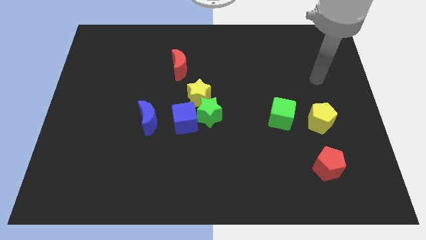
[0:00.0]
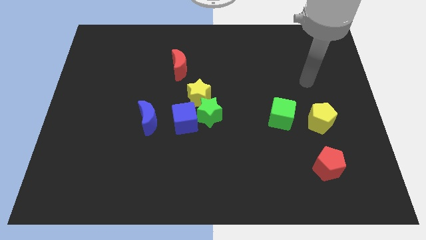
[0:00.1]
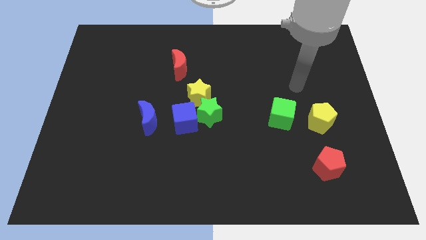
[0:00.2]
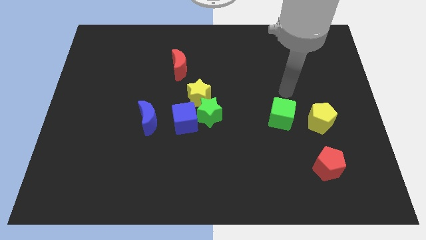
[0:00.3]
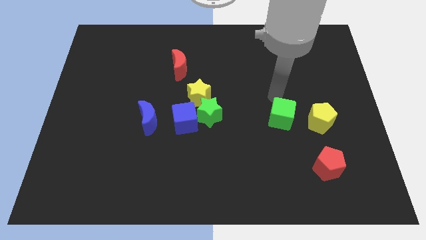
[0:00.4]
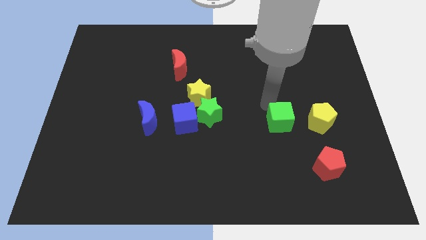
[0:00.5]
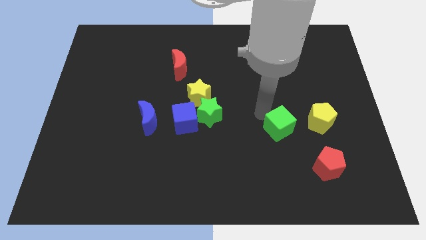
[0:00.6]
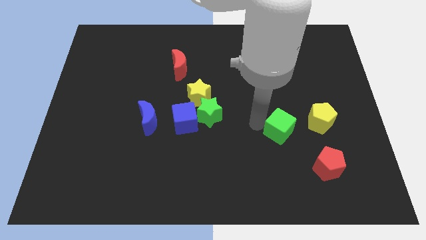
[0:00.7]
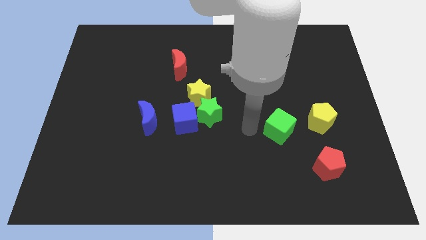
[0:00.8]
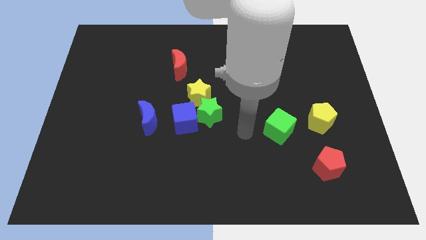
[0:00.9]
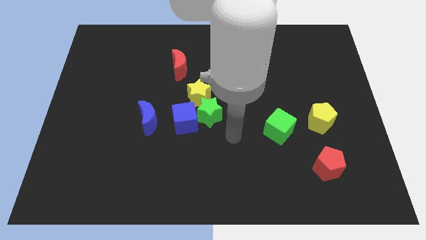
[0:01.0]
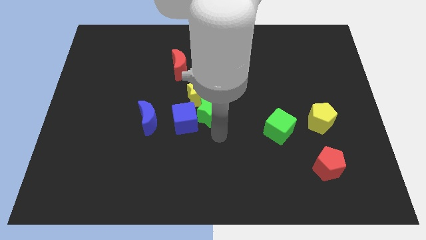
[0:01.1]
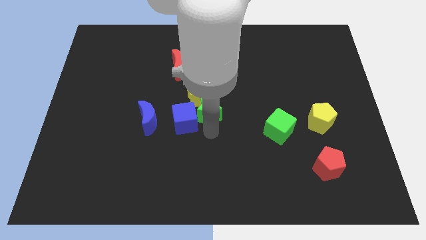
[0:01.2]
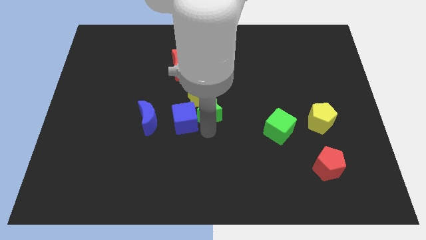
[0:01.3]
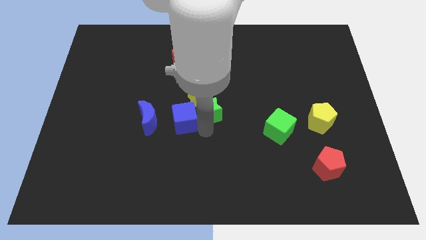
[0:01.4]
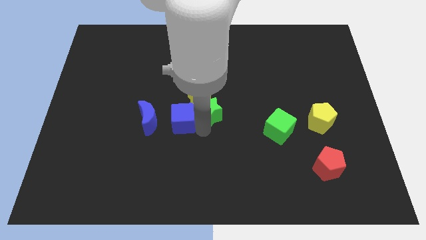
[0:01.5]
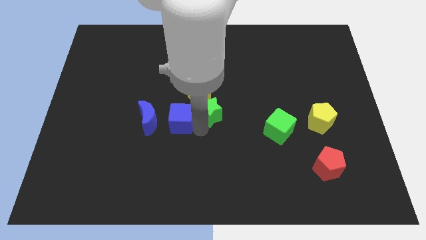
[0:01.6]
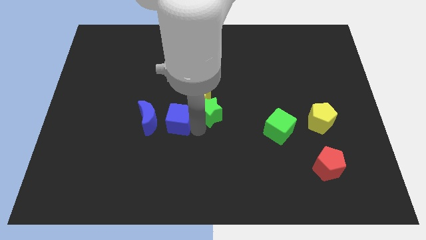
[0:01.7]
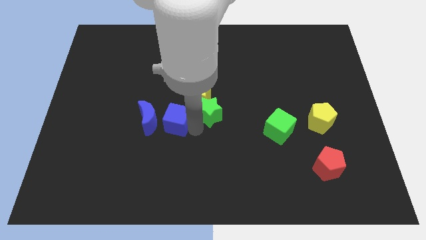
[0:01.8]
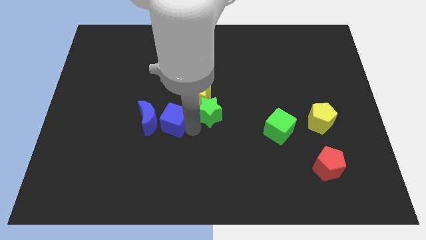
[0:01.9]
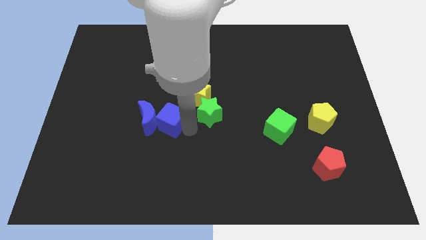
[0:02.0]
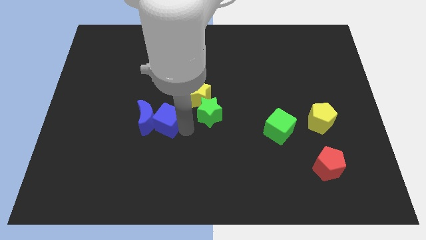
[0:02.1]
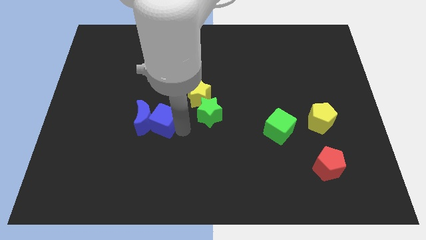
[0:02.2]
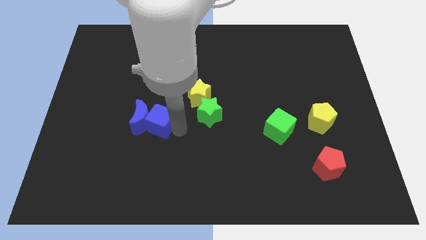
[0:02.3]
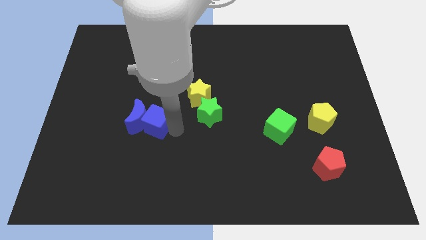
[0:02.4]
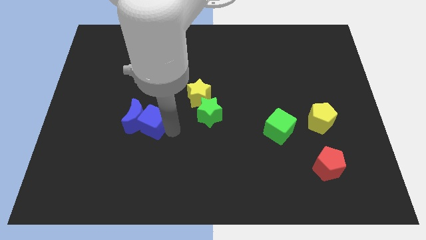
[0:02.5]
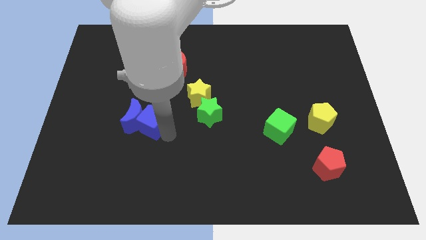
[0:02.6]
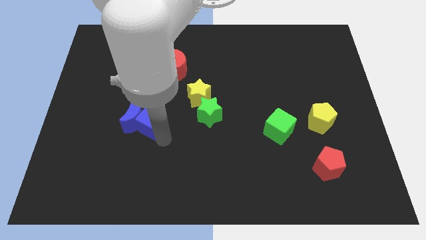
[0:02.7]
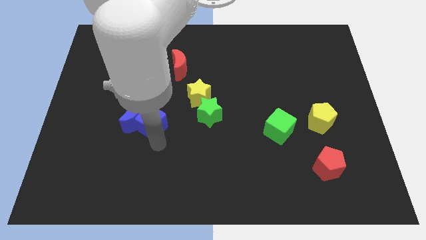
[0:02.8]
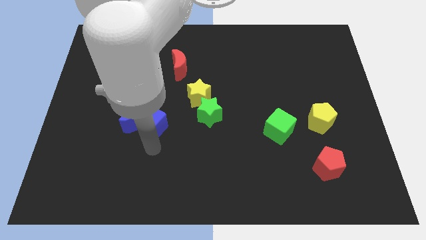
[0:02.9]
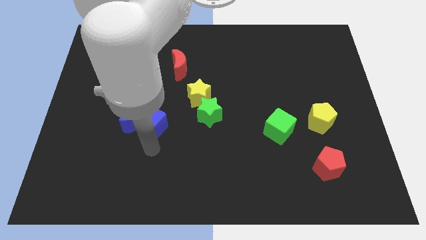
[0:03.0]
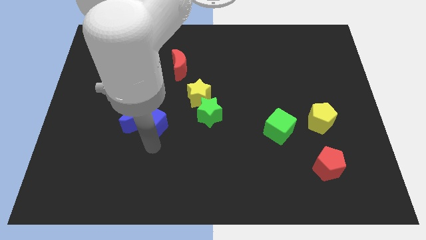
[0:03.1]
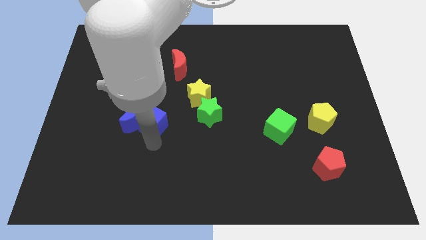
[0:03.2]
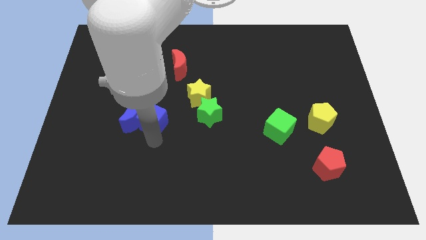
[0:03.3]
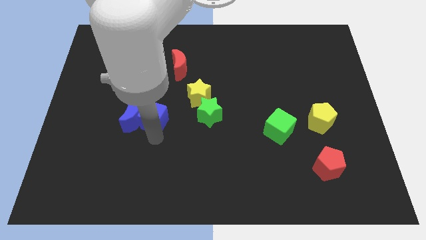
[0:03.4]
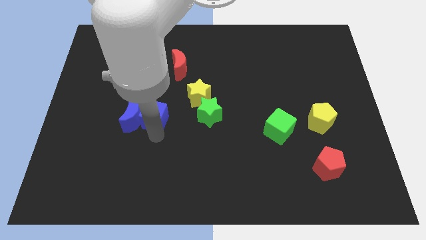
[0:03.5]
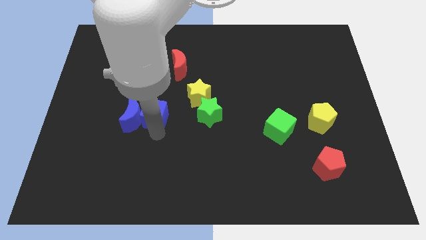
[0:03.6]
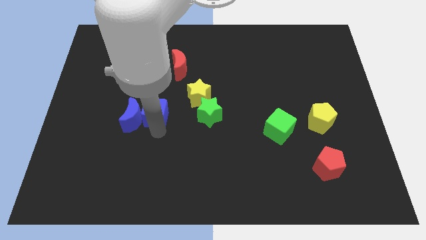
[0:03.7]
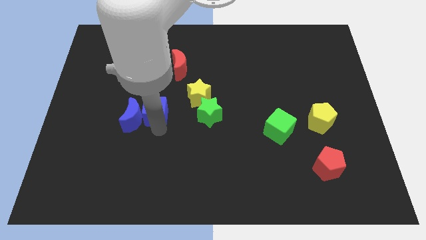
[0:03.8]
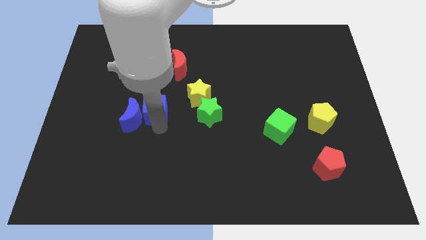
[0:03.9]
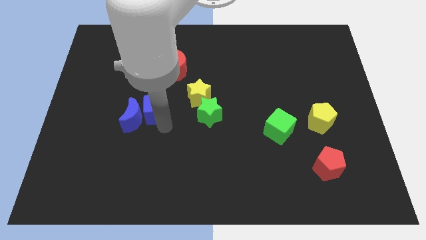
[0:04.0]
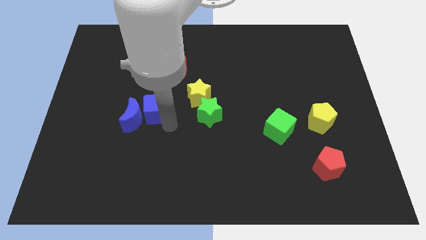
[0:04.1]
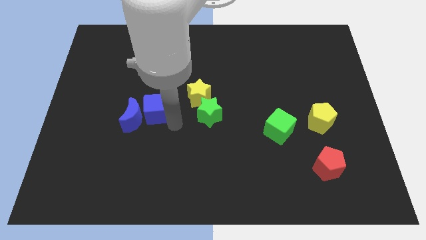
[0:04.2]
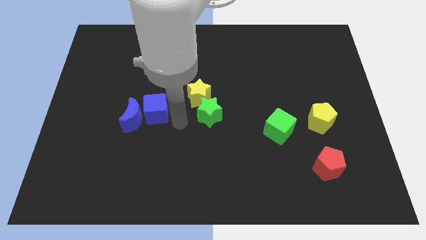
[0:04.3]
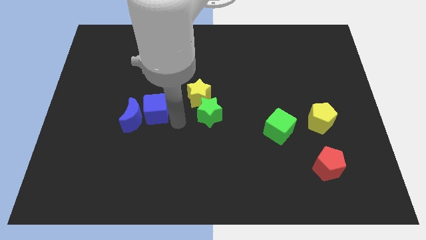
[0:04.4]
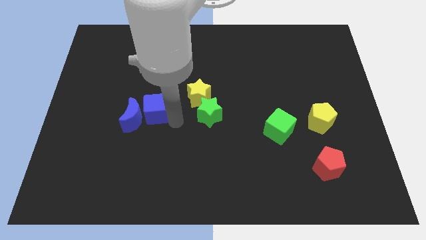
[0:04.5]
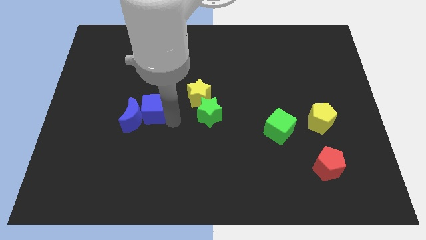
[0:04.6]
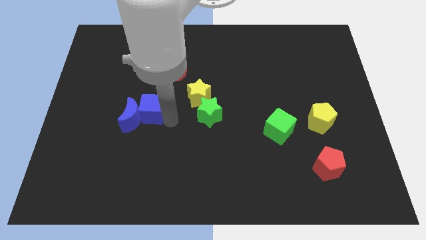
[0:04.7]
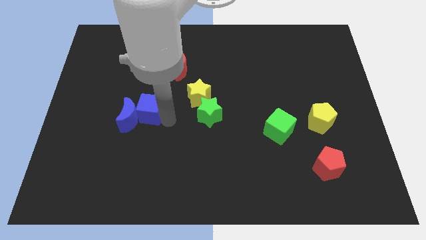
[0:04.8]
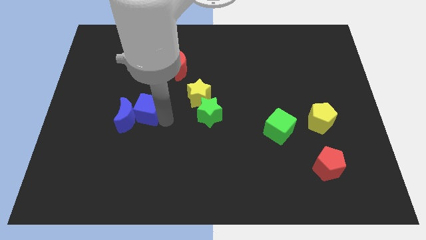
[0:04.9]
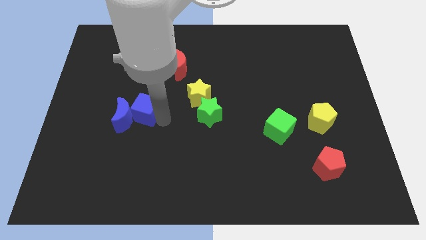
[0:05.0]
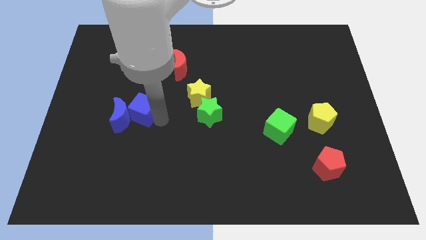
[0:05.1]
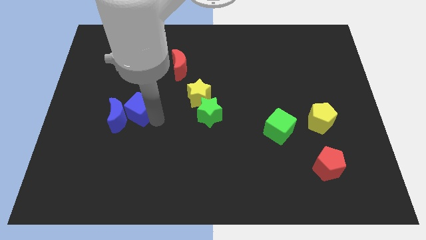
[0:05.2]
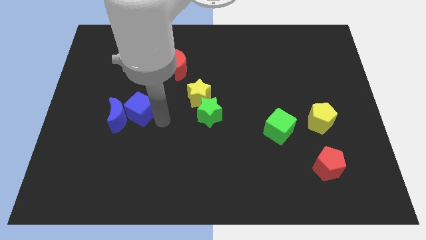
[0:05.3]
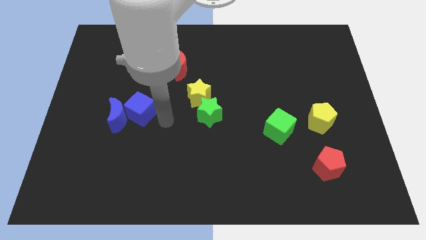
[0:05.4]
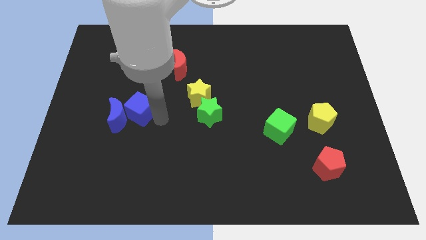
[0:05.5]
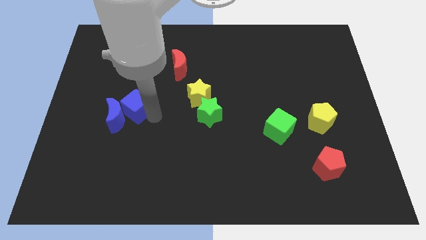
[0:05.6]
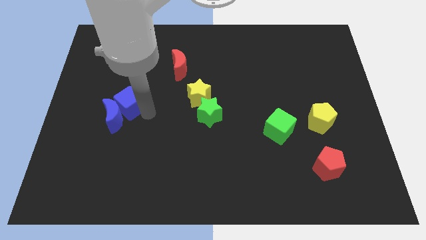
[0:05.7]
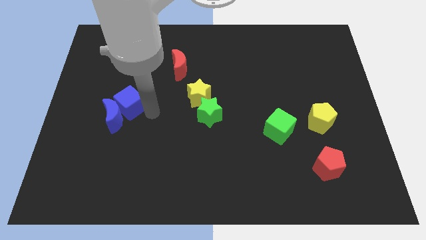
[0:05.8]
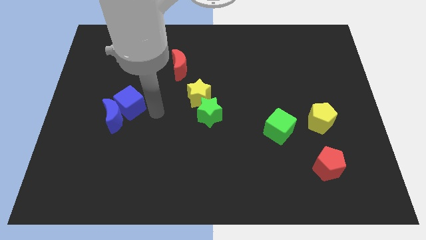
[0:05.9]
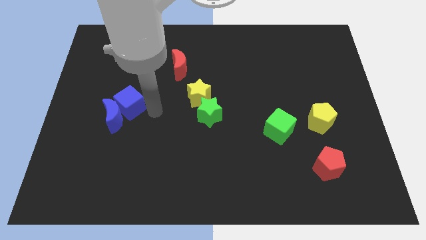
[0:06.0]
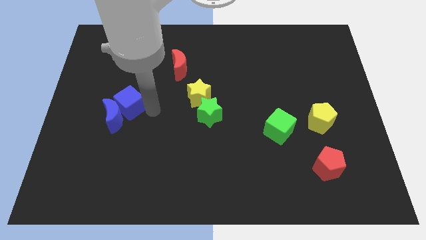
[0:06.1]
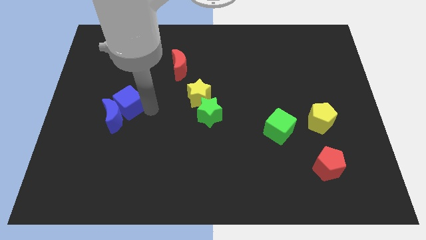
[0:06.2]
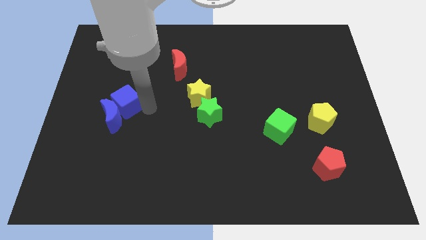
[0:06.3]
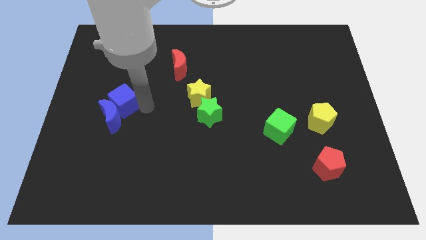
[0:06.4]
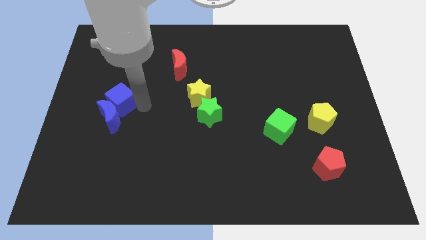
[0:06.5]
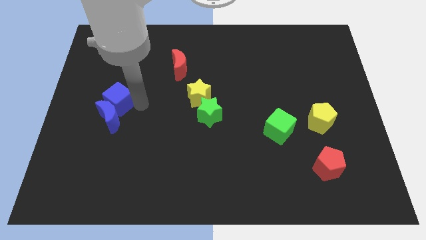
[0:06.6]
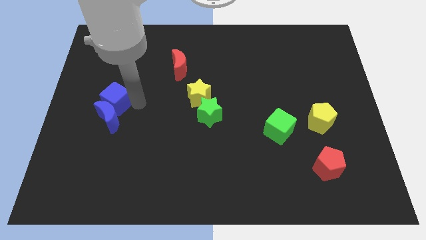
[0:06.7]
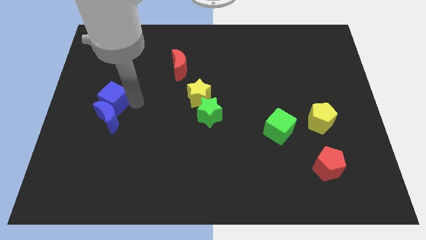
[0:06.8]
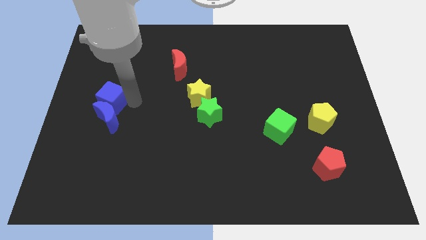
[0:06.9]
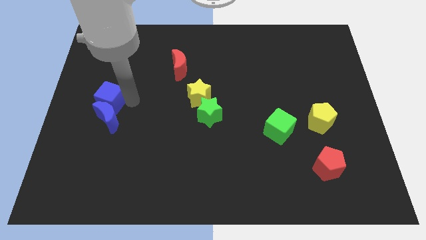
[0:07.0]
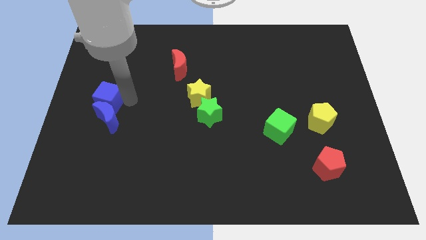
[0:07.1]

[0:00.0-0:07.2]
push the blue cube to the left side of the board
